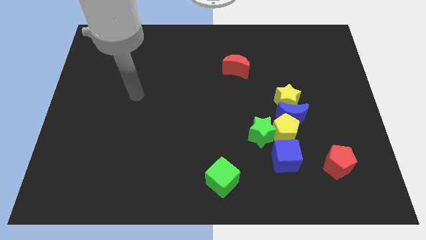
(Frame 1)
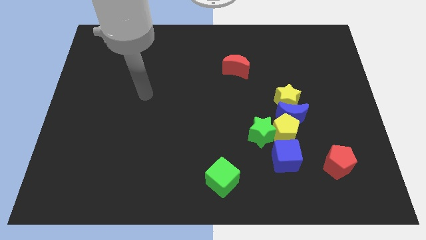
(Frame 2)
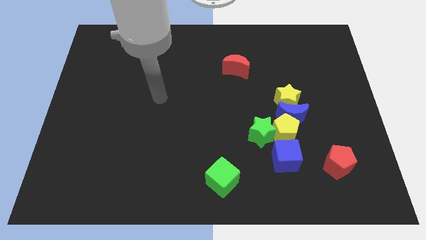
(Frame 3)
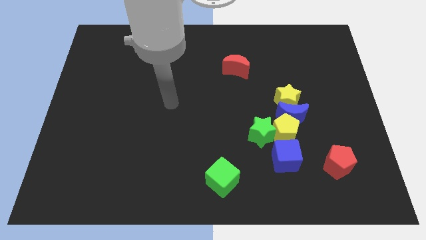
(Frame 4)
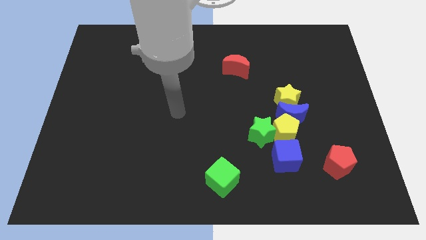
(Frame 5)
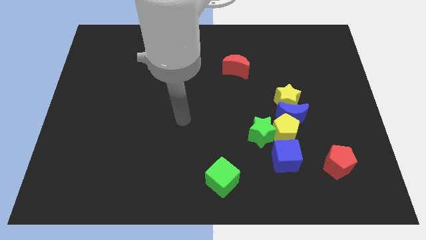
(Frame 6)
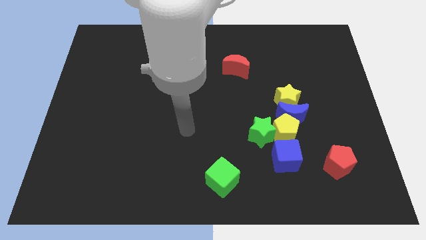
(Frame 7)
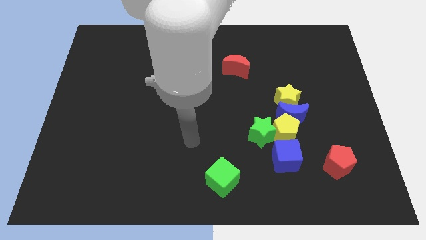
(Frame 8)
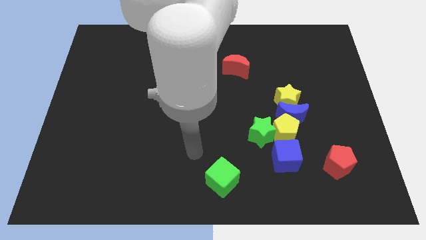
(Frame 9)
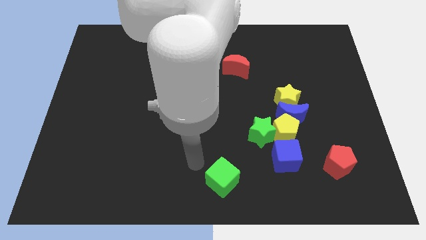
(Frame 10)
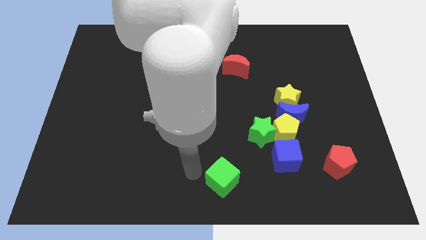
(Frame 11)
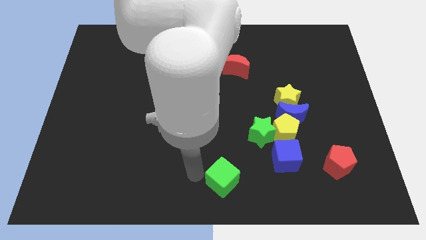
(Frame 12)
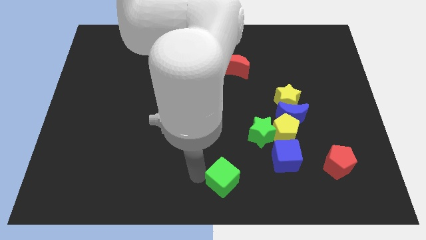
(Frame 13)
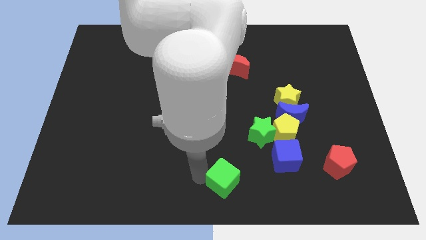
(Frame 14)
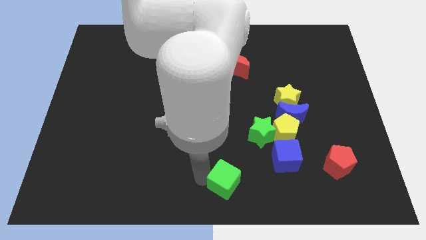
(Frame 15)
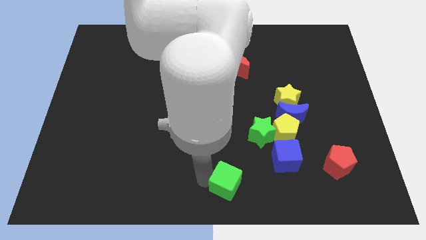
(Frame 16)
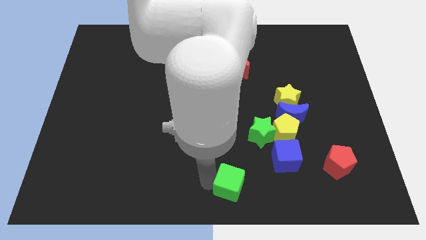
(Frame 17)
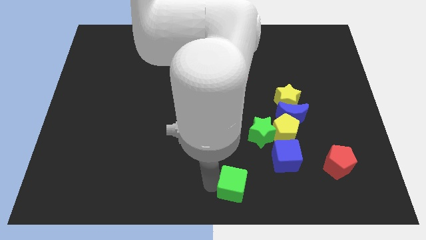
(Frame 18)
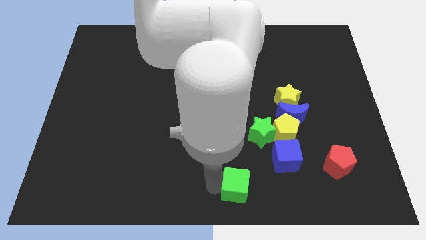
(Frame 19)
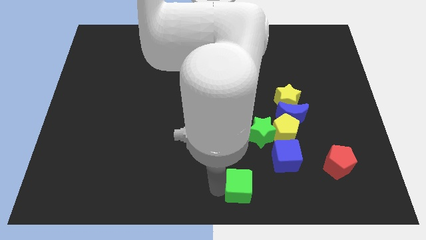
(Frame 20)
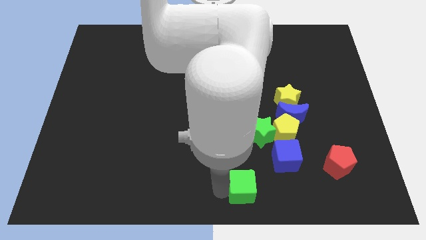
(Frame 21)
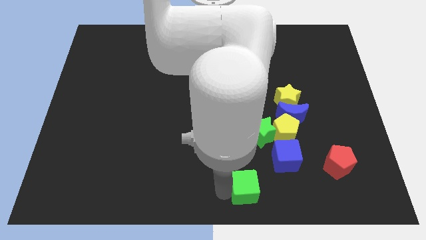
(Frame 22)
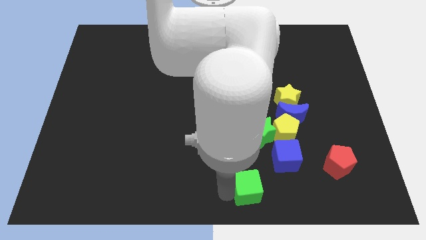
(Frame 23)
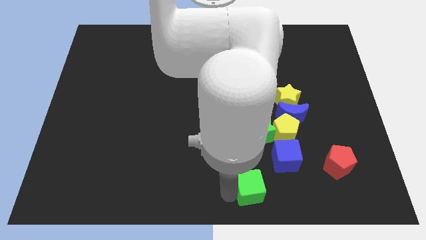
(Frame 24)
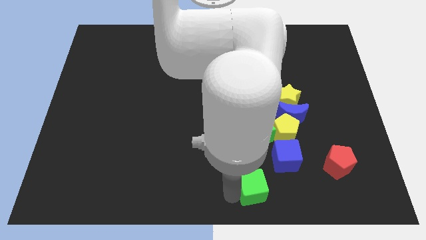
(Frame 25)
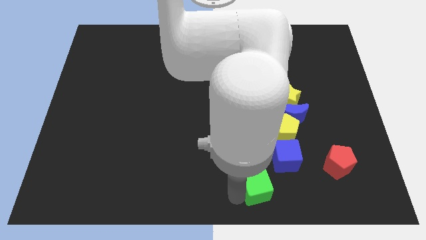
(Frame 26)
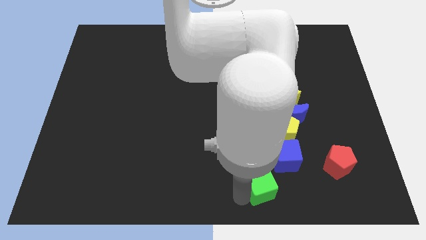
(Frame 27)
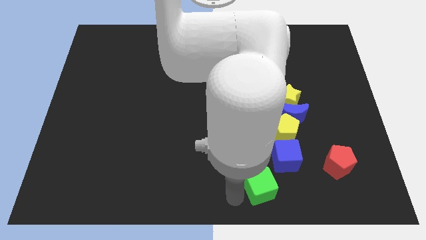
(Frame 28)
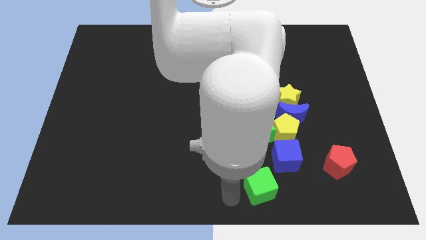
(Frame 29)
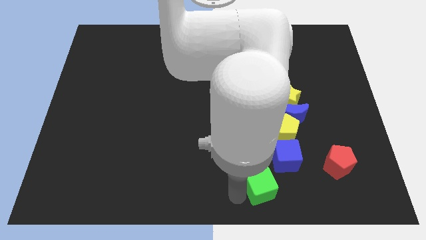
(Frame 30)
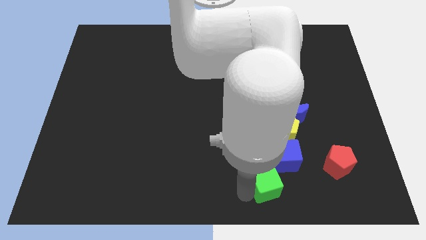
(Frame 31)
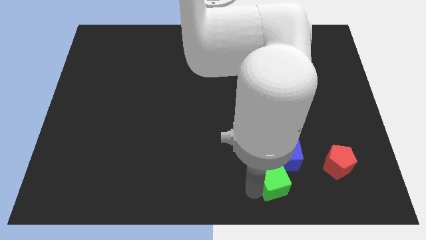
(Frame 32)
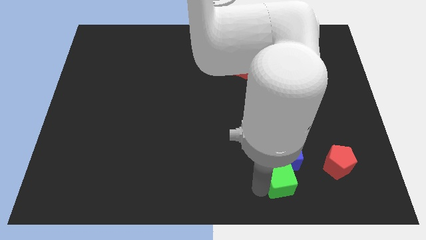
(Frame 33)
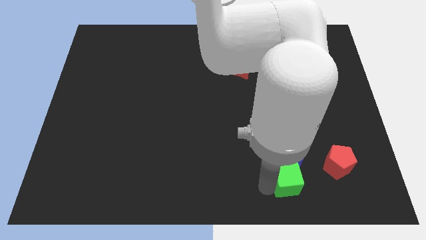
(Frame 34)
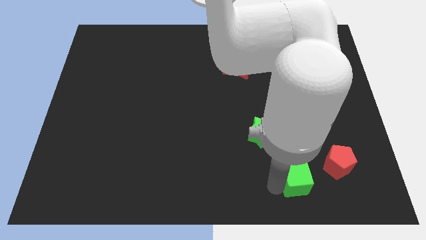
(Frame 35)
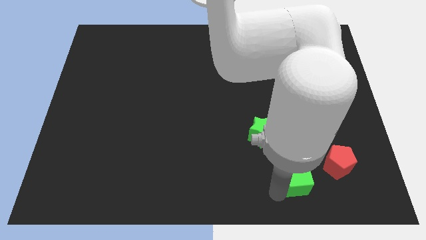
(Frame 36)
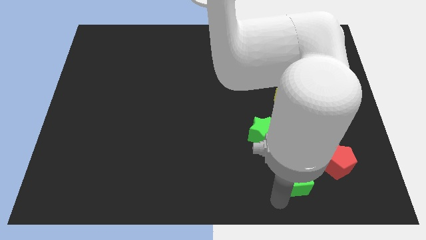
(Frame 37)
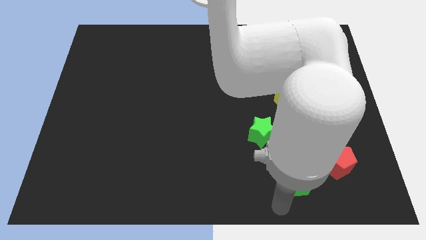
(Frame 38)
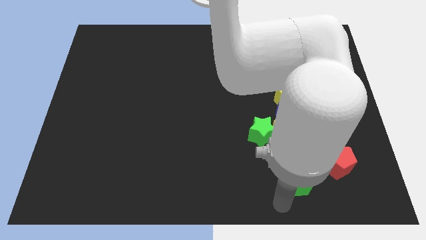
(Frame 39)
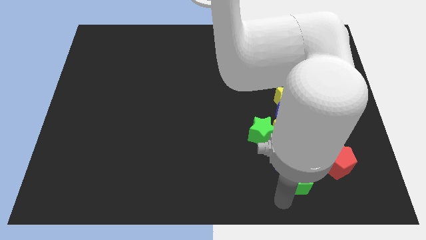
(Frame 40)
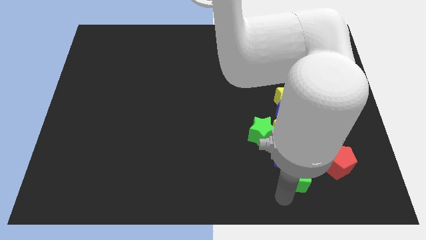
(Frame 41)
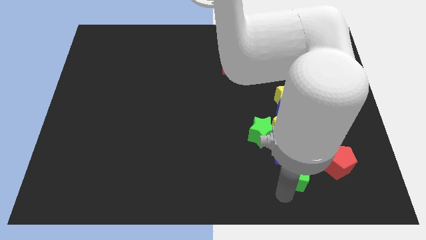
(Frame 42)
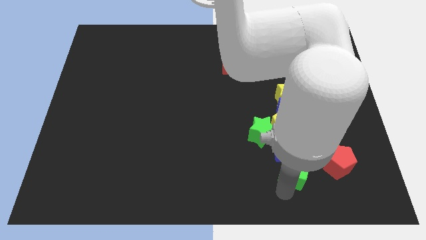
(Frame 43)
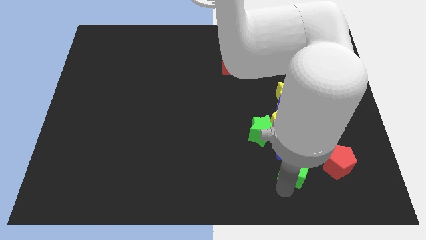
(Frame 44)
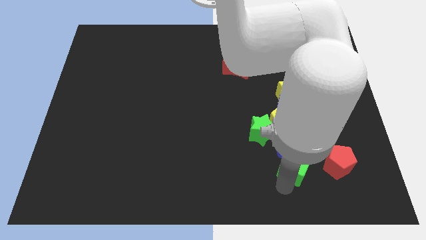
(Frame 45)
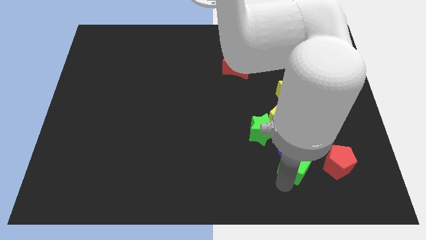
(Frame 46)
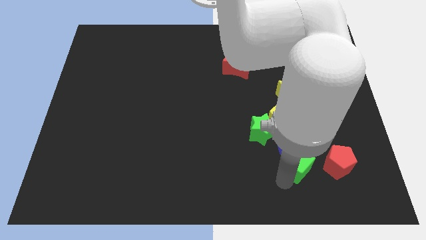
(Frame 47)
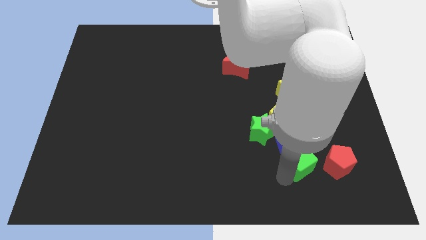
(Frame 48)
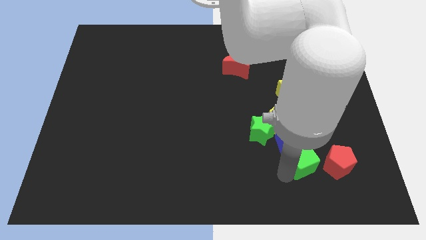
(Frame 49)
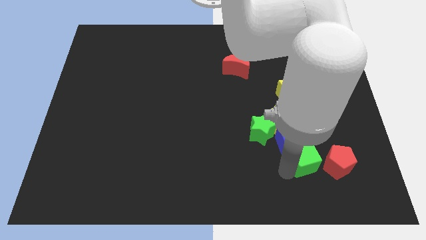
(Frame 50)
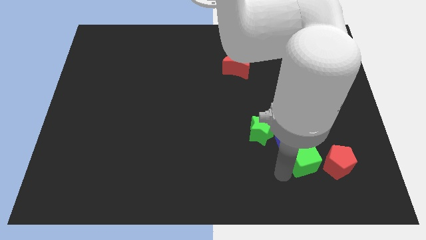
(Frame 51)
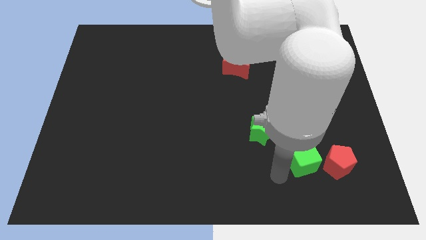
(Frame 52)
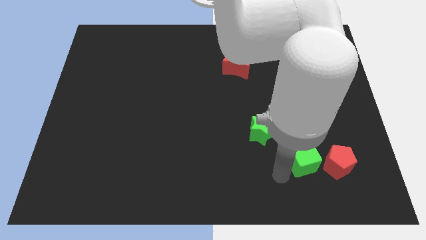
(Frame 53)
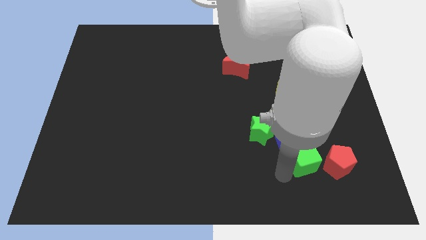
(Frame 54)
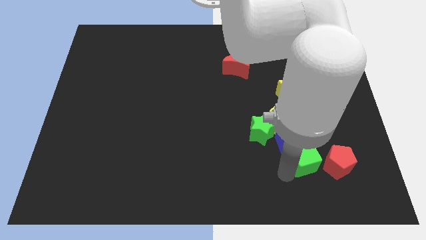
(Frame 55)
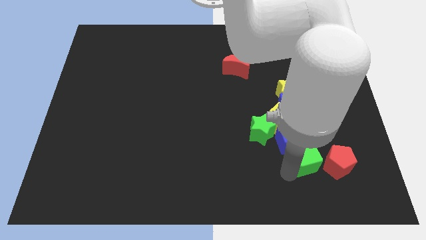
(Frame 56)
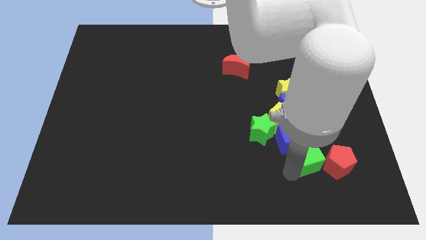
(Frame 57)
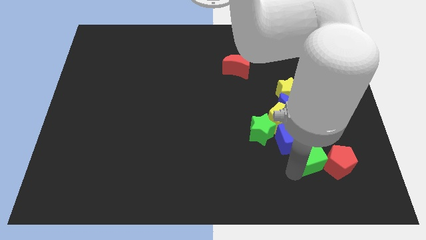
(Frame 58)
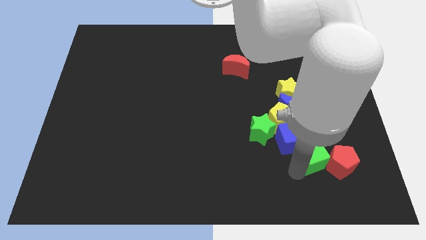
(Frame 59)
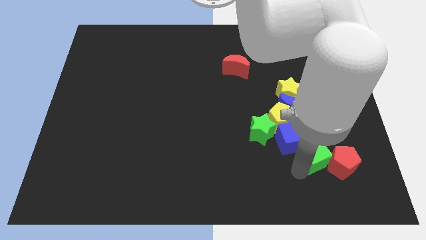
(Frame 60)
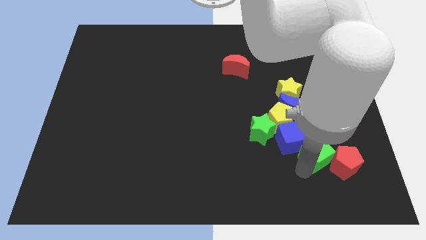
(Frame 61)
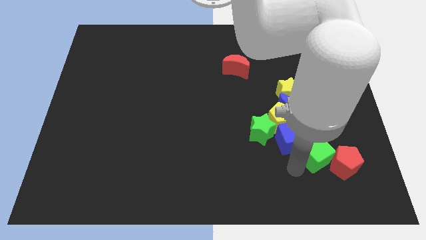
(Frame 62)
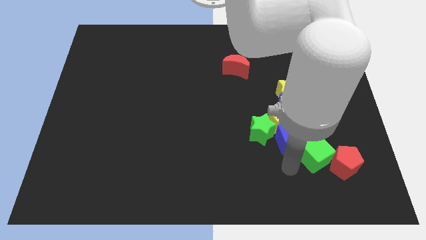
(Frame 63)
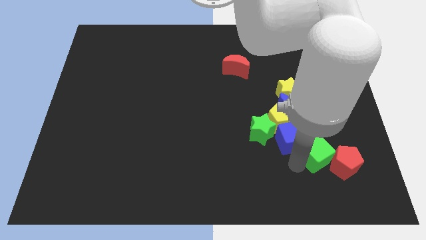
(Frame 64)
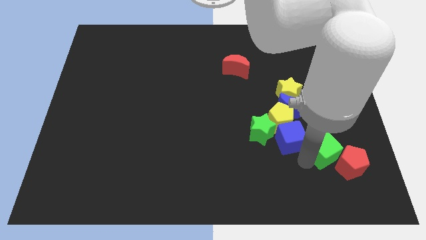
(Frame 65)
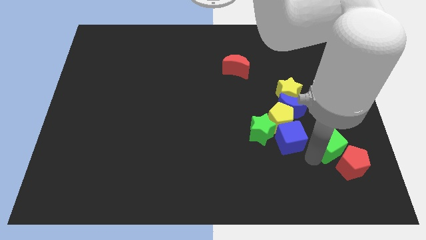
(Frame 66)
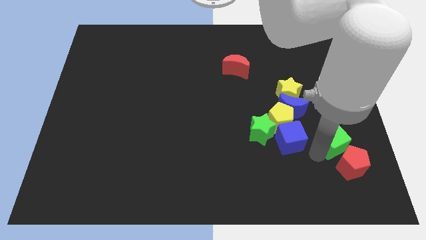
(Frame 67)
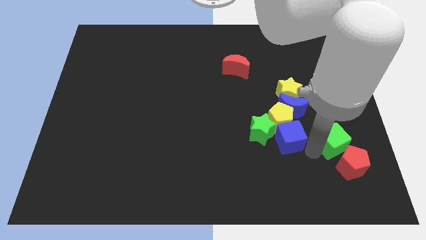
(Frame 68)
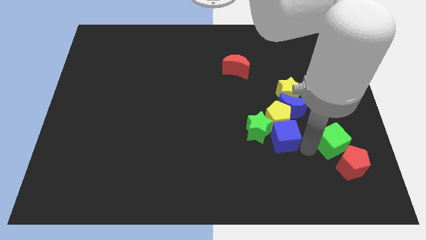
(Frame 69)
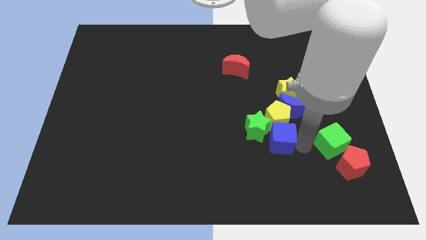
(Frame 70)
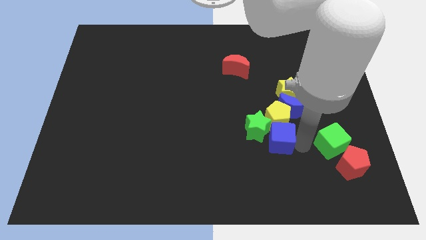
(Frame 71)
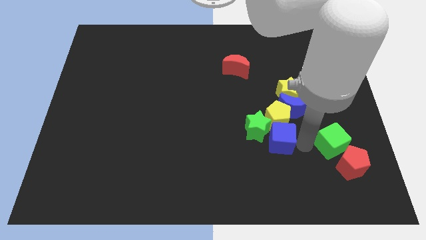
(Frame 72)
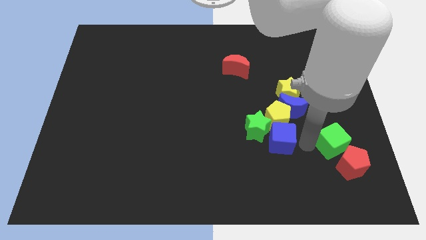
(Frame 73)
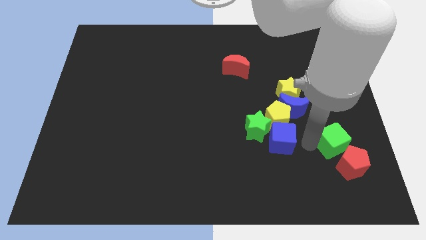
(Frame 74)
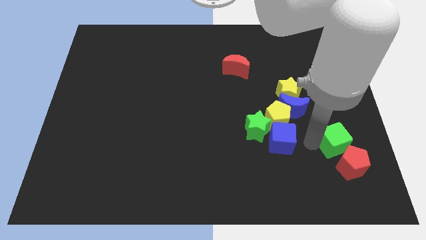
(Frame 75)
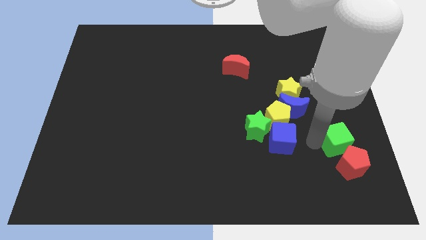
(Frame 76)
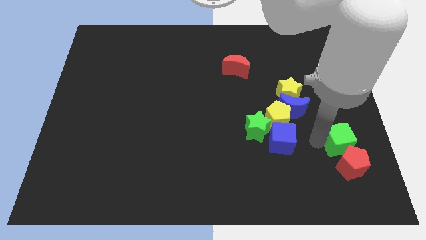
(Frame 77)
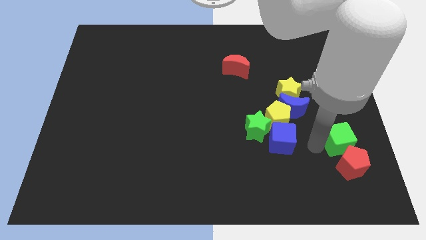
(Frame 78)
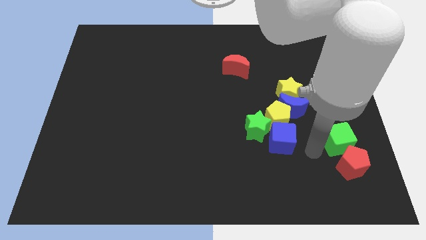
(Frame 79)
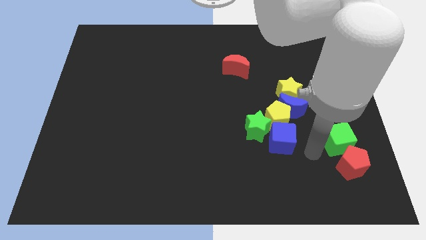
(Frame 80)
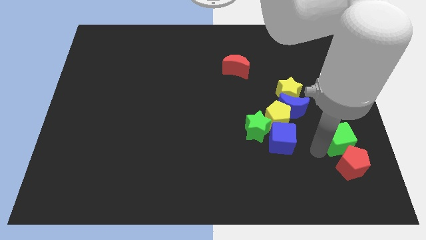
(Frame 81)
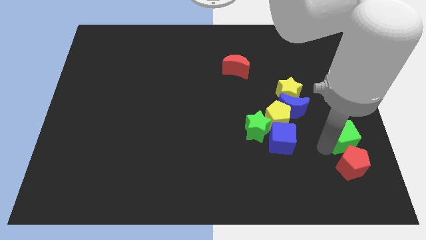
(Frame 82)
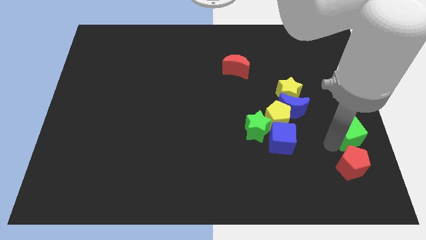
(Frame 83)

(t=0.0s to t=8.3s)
move the green cube to the right side
